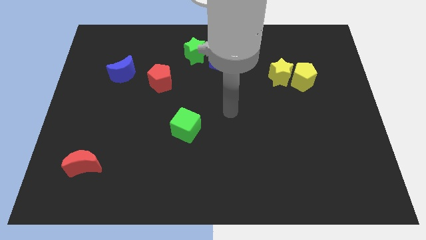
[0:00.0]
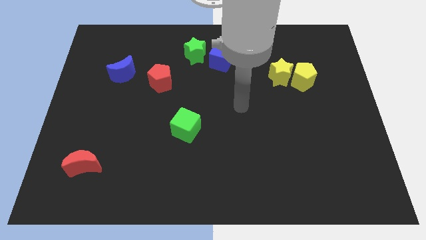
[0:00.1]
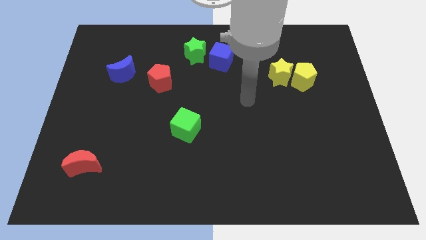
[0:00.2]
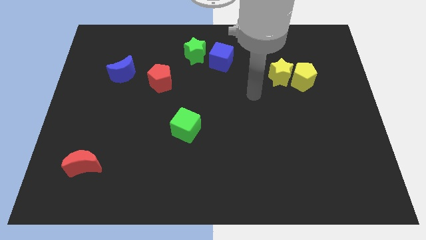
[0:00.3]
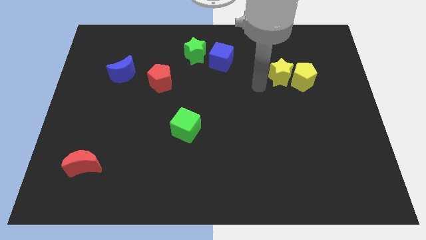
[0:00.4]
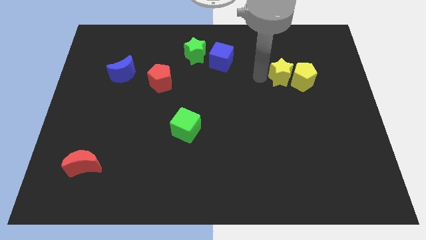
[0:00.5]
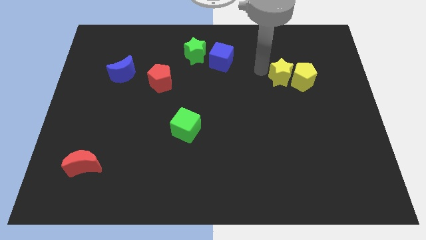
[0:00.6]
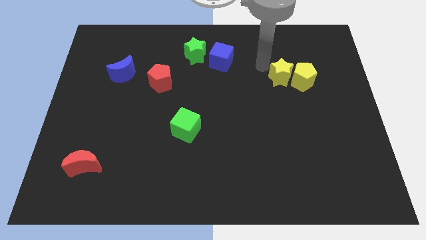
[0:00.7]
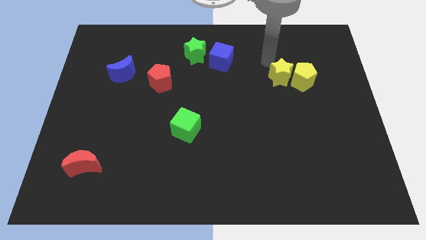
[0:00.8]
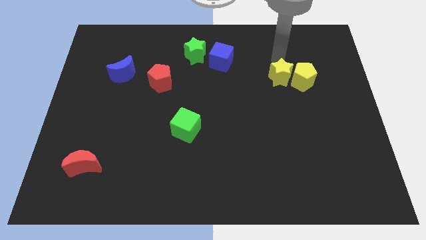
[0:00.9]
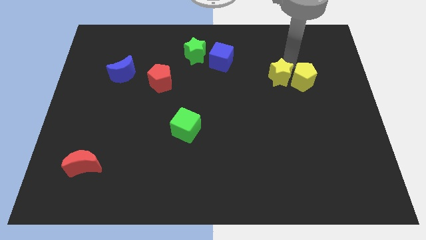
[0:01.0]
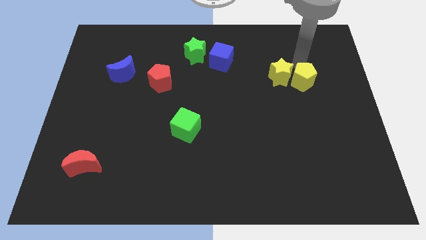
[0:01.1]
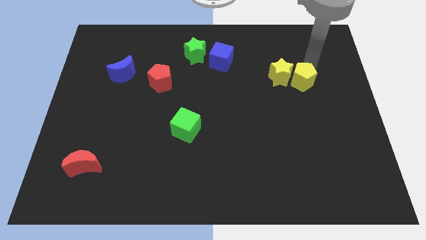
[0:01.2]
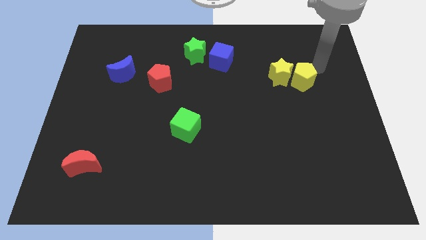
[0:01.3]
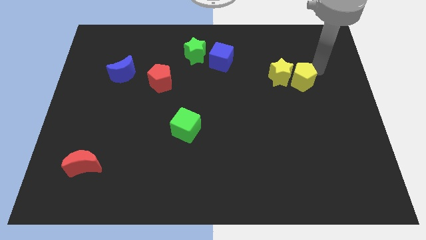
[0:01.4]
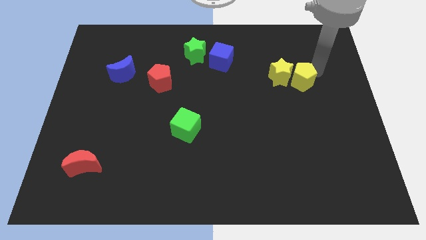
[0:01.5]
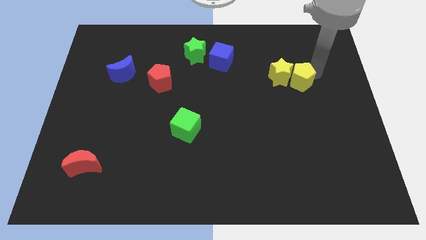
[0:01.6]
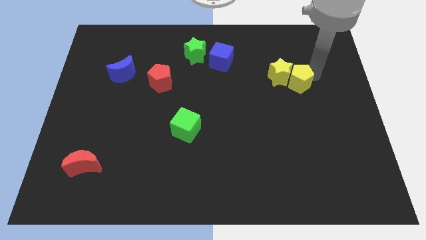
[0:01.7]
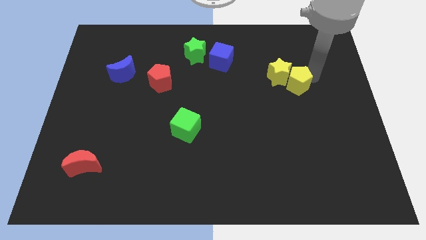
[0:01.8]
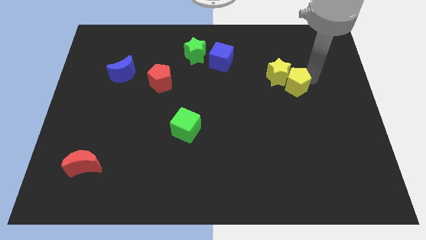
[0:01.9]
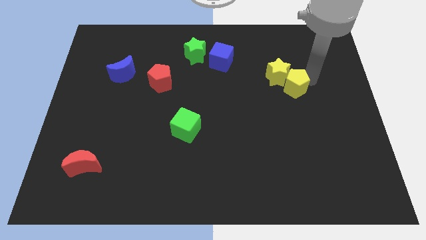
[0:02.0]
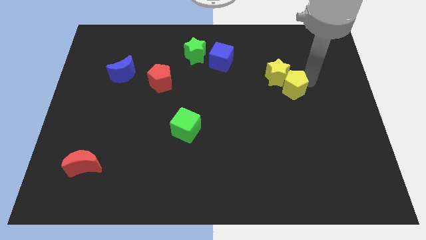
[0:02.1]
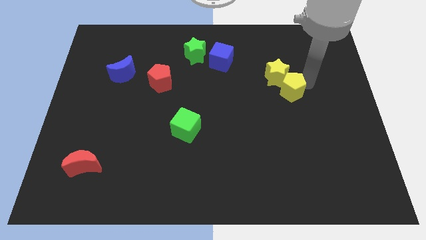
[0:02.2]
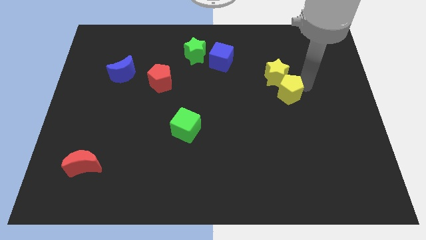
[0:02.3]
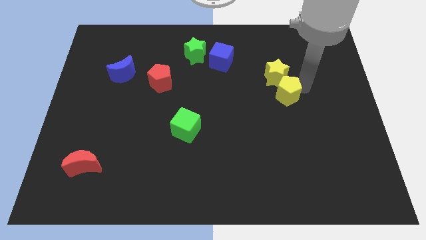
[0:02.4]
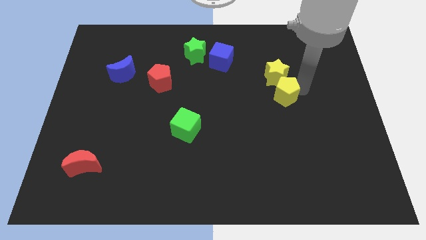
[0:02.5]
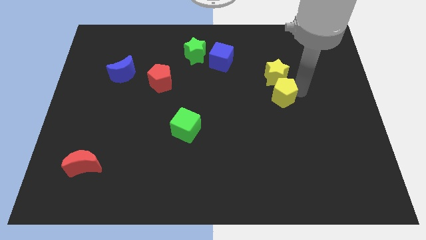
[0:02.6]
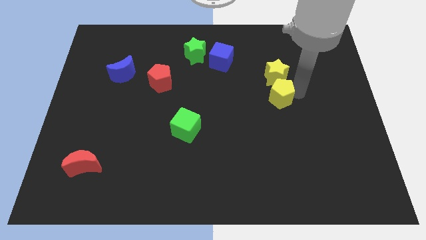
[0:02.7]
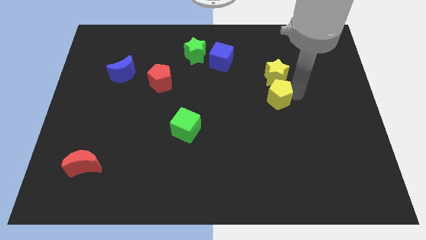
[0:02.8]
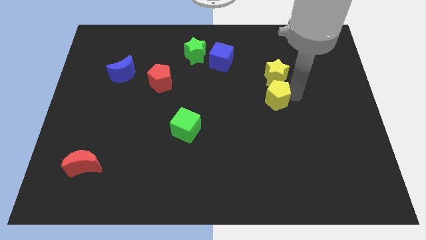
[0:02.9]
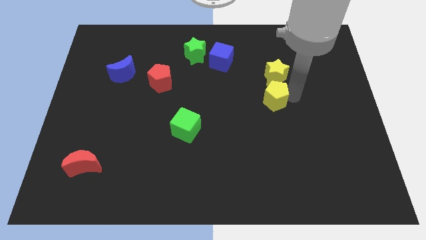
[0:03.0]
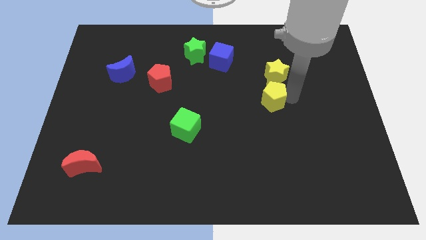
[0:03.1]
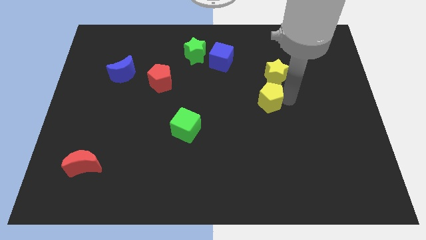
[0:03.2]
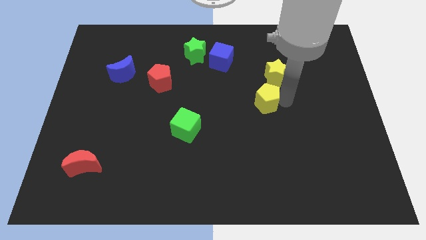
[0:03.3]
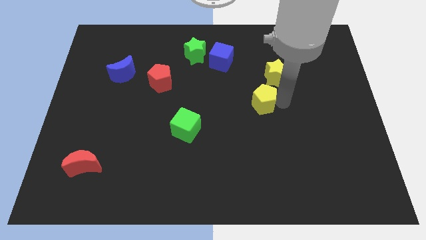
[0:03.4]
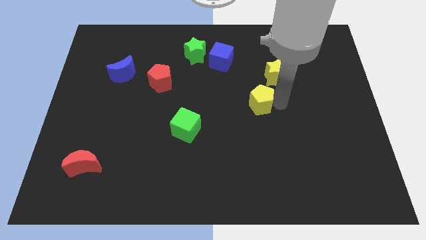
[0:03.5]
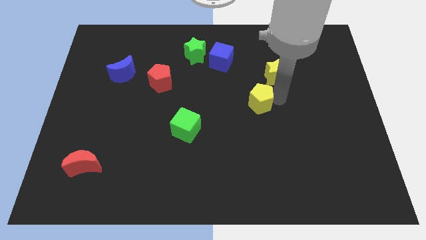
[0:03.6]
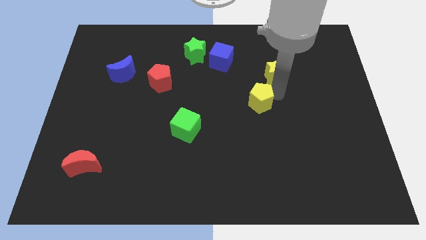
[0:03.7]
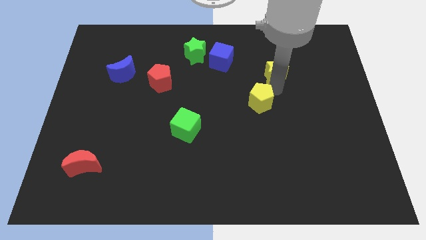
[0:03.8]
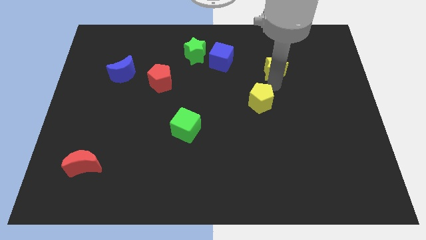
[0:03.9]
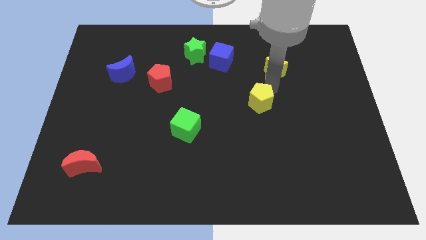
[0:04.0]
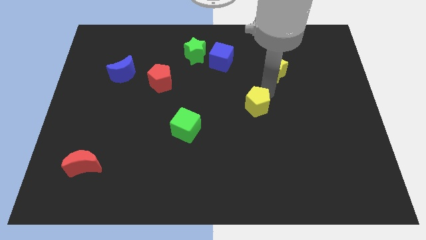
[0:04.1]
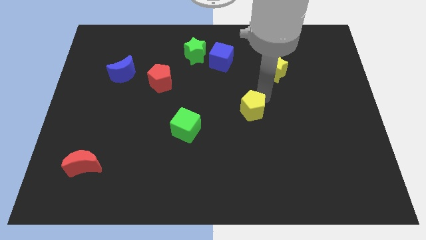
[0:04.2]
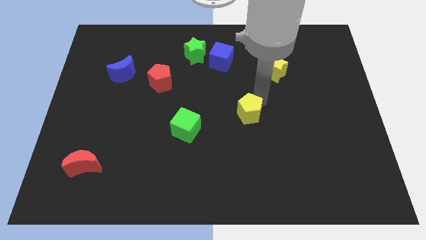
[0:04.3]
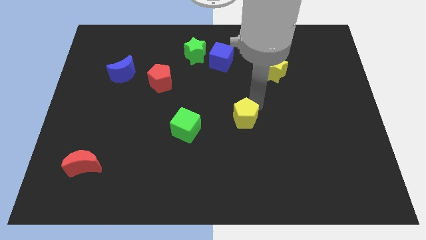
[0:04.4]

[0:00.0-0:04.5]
slide the yellow pentagon just right of the green cube

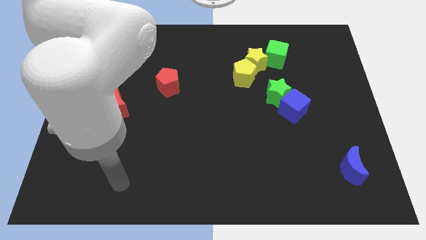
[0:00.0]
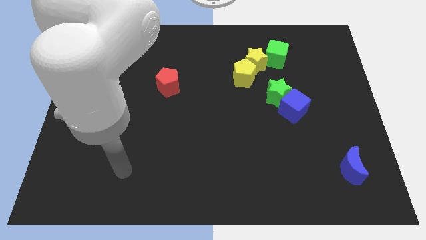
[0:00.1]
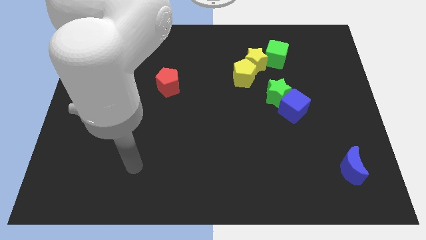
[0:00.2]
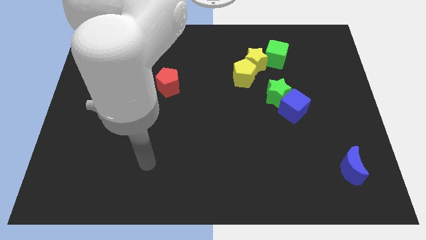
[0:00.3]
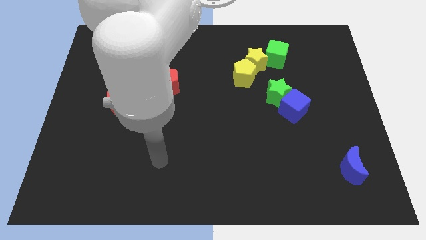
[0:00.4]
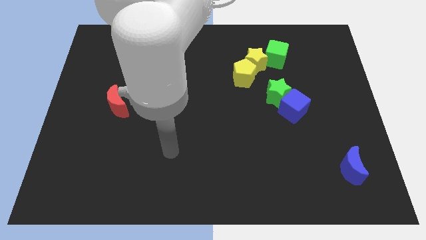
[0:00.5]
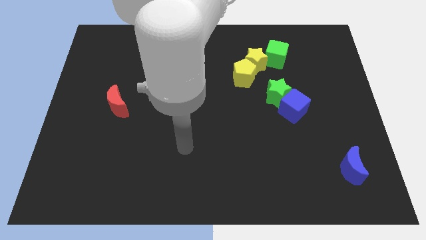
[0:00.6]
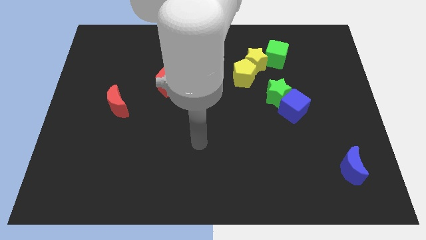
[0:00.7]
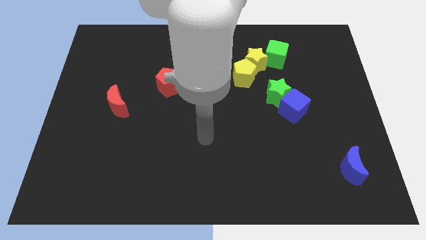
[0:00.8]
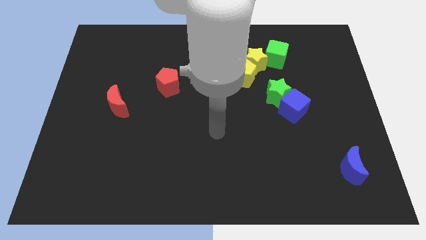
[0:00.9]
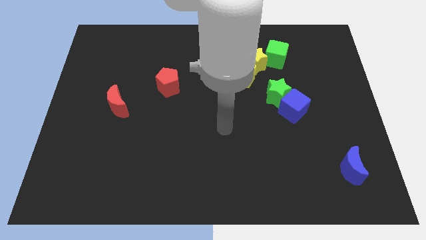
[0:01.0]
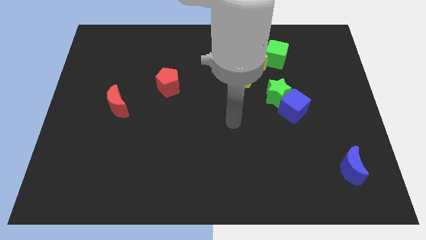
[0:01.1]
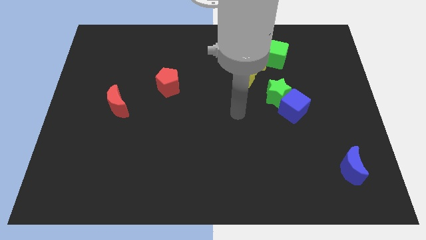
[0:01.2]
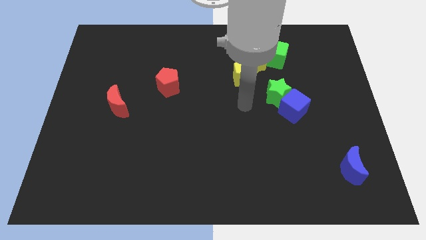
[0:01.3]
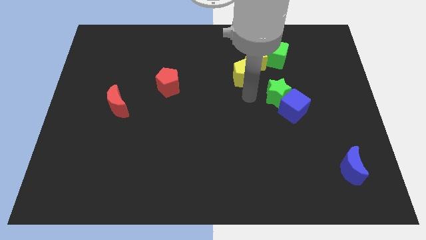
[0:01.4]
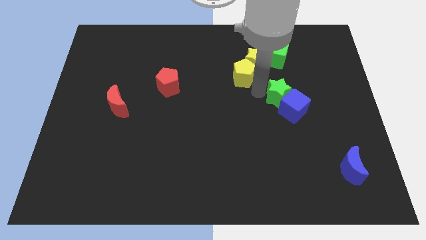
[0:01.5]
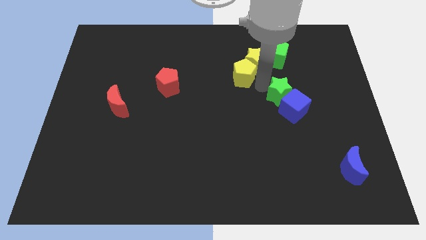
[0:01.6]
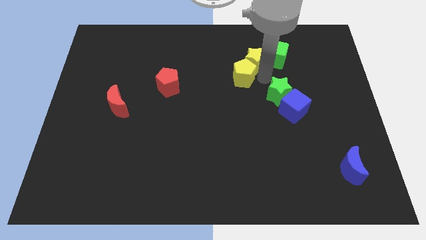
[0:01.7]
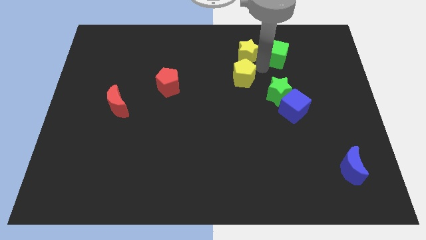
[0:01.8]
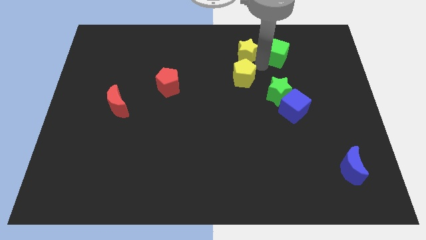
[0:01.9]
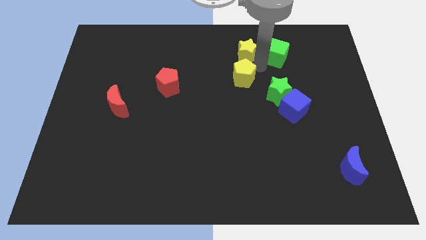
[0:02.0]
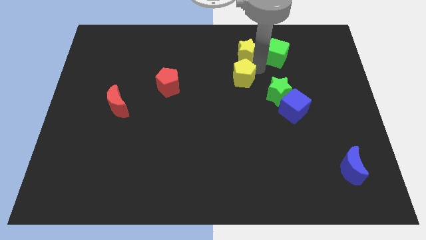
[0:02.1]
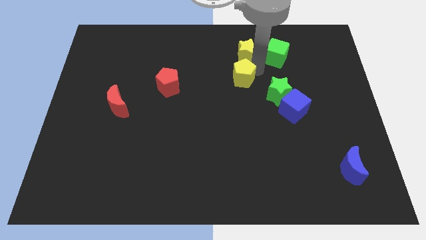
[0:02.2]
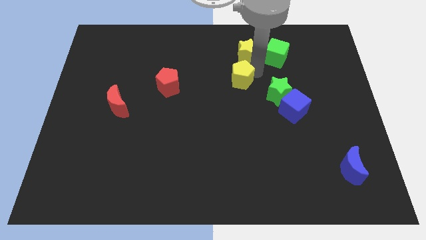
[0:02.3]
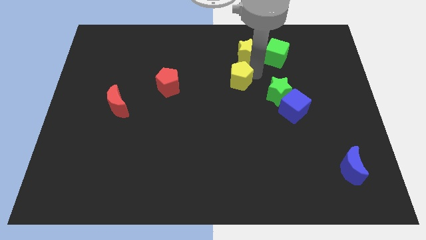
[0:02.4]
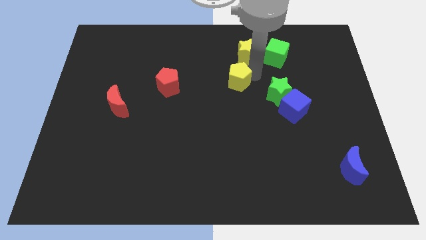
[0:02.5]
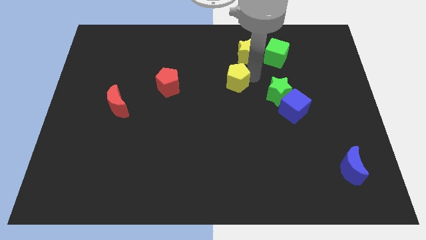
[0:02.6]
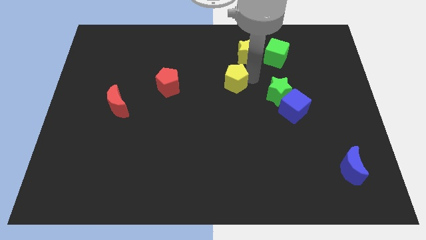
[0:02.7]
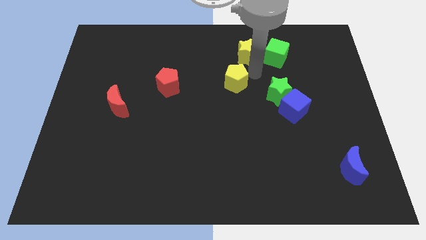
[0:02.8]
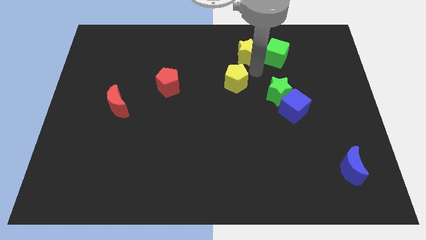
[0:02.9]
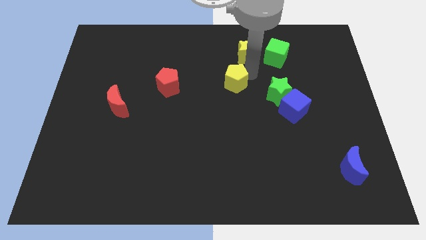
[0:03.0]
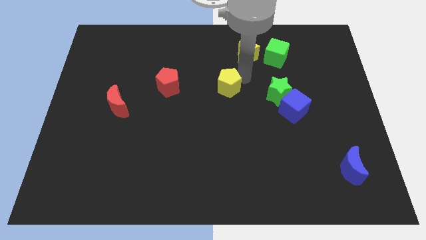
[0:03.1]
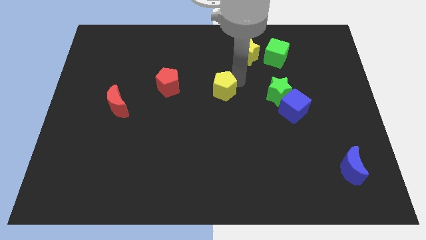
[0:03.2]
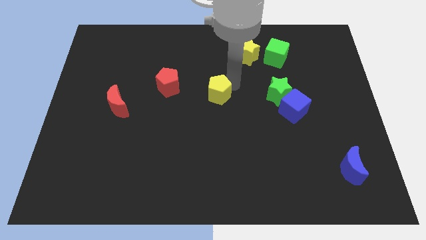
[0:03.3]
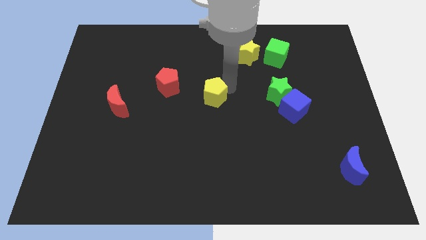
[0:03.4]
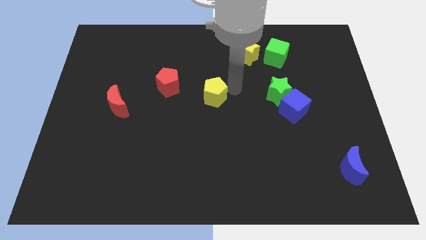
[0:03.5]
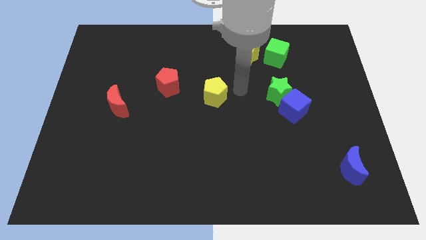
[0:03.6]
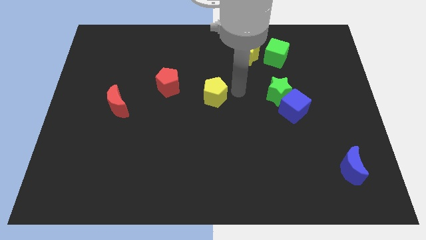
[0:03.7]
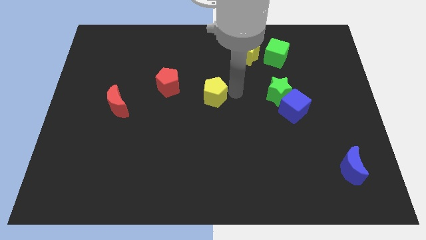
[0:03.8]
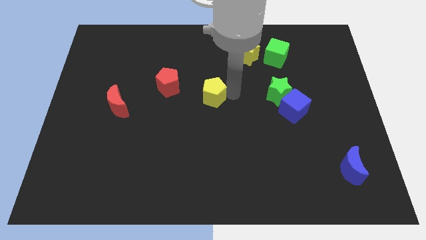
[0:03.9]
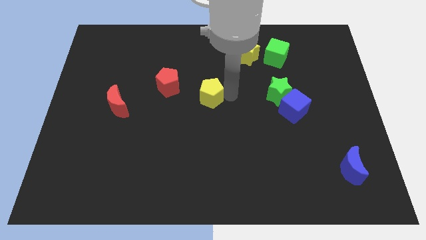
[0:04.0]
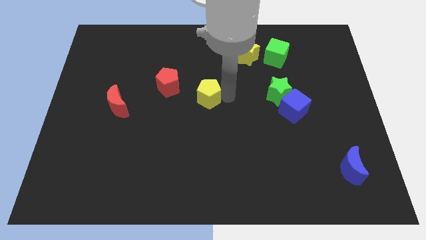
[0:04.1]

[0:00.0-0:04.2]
put the yellow pentagon to the bottom right side of the red pentagon
